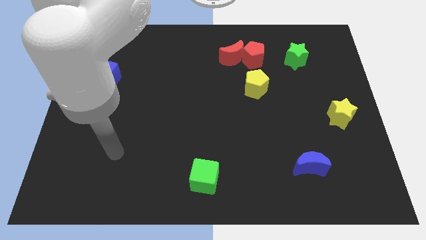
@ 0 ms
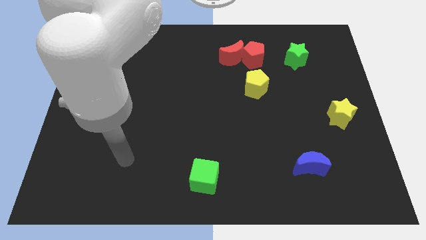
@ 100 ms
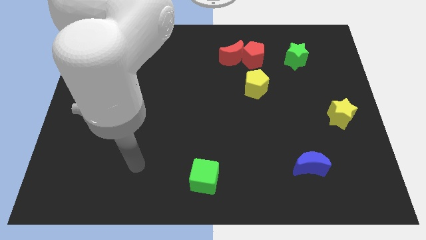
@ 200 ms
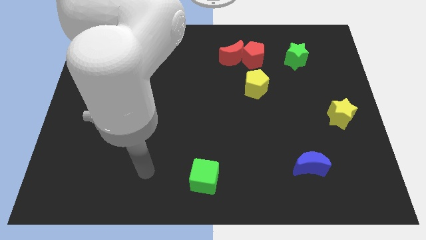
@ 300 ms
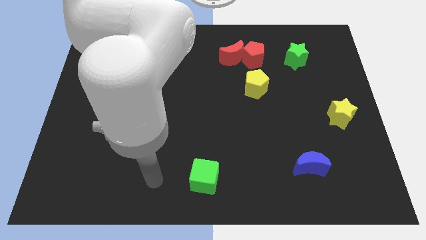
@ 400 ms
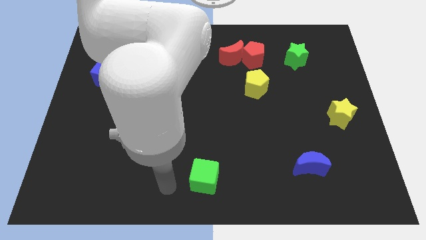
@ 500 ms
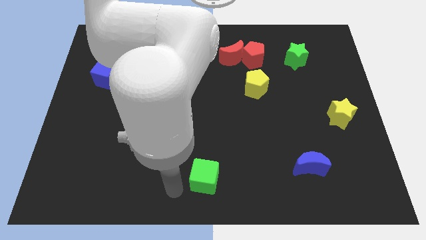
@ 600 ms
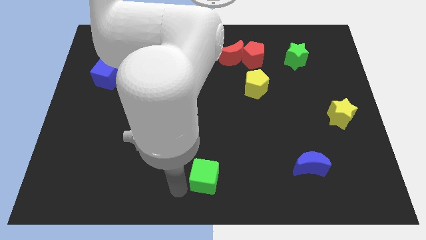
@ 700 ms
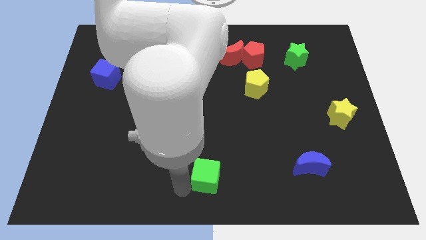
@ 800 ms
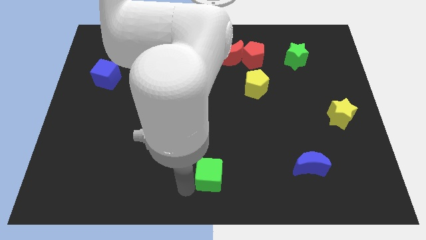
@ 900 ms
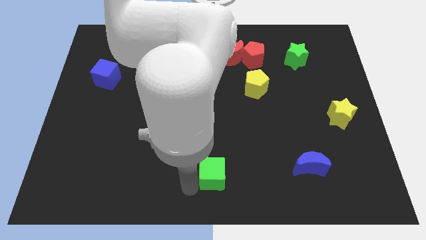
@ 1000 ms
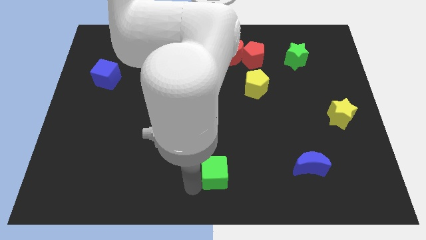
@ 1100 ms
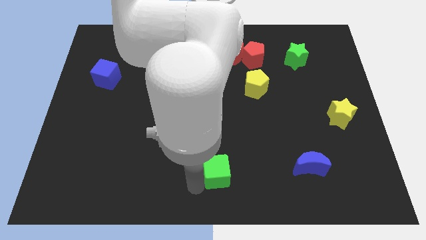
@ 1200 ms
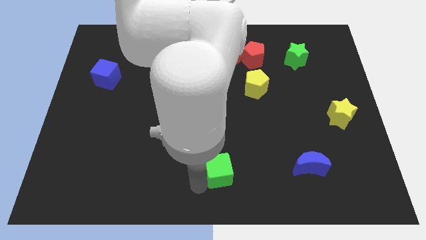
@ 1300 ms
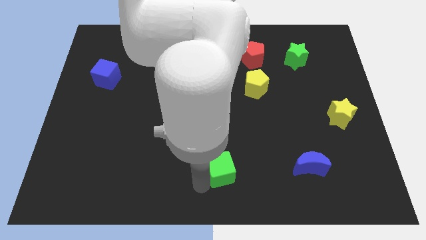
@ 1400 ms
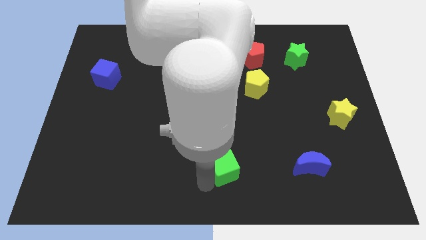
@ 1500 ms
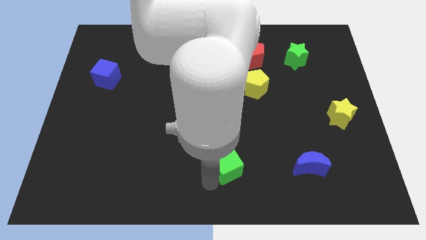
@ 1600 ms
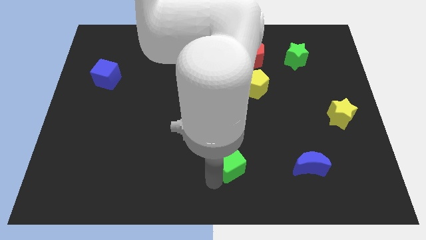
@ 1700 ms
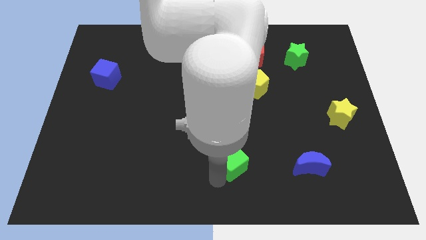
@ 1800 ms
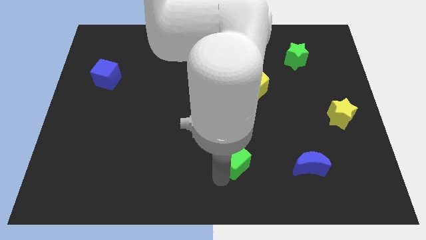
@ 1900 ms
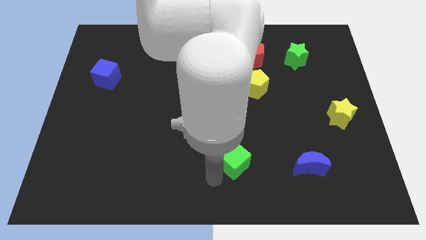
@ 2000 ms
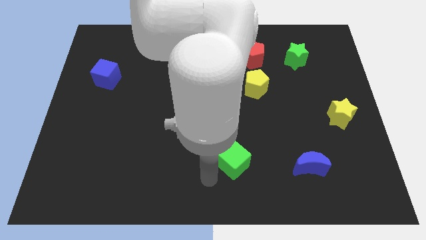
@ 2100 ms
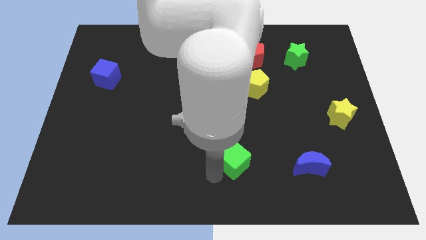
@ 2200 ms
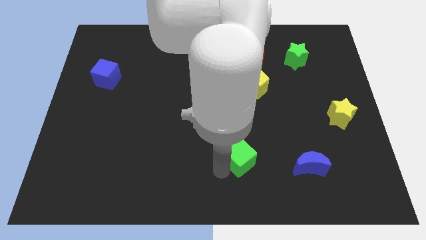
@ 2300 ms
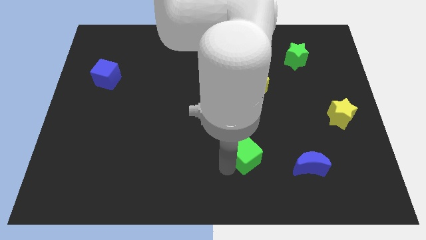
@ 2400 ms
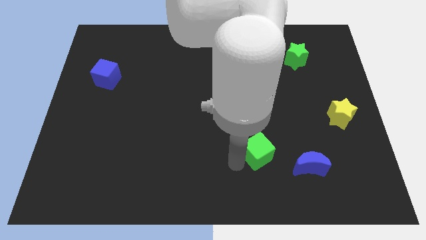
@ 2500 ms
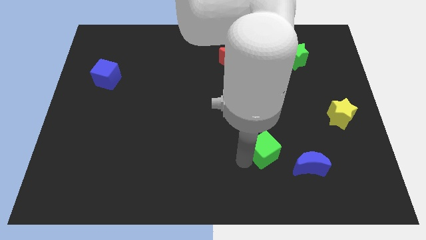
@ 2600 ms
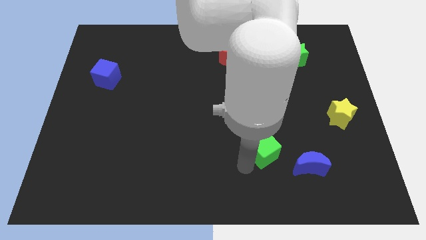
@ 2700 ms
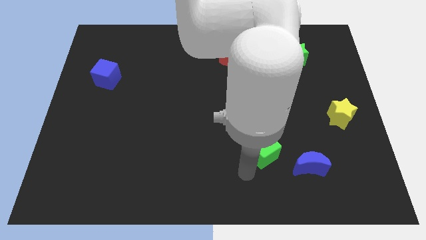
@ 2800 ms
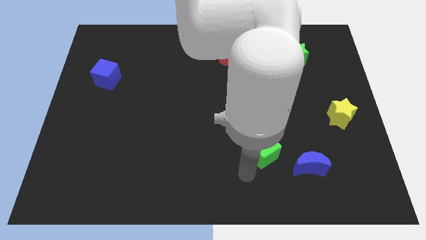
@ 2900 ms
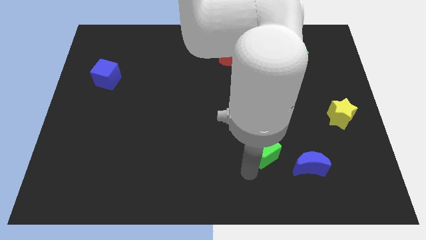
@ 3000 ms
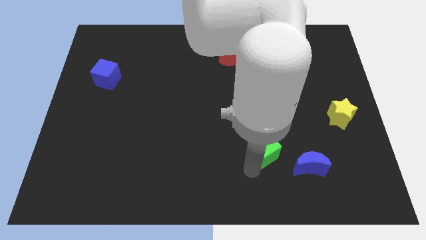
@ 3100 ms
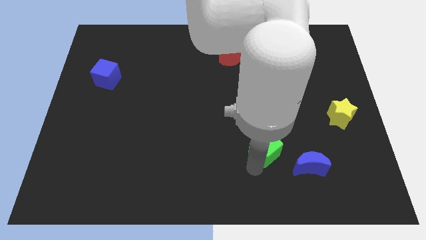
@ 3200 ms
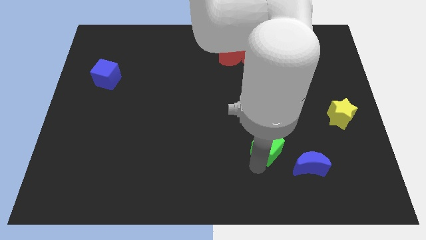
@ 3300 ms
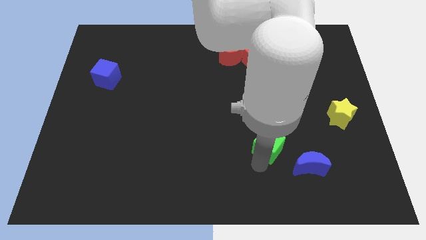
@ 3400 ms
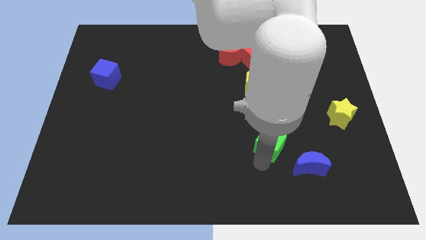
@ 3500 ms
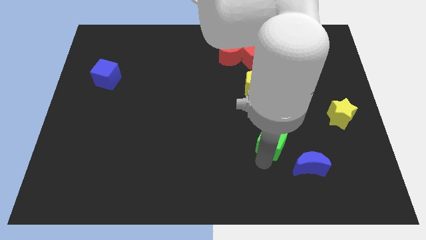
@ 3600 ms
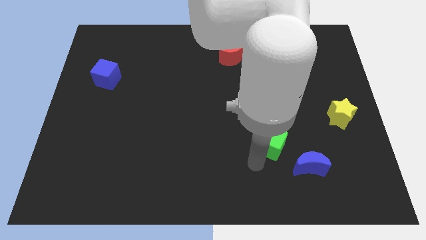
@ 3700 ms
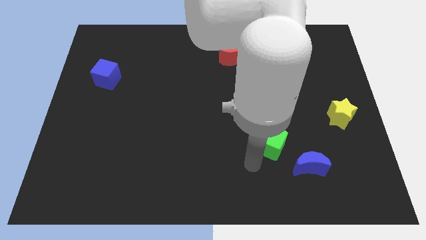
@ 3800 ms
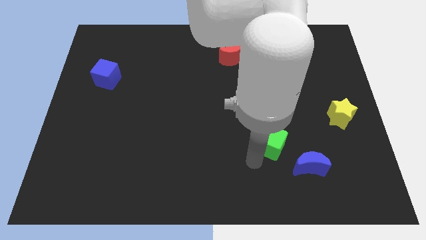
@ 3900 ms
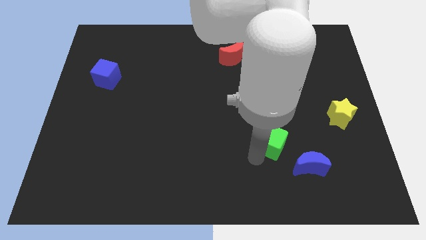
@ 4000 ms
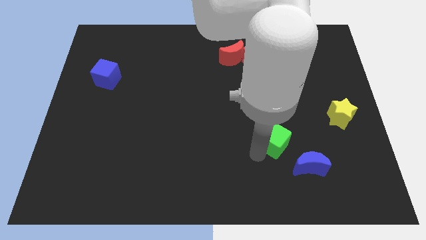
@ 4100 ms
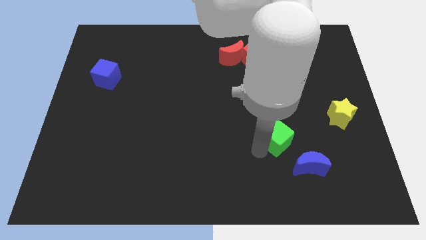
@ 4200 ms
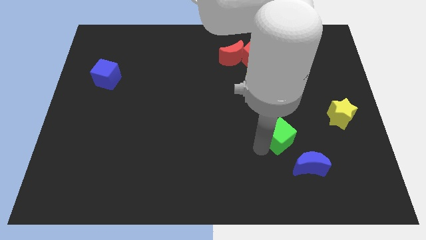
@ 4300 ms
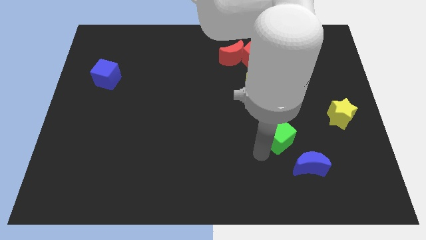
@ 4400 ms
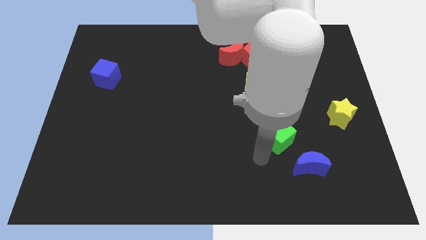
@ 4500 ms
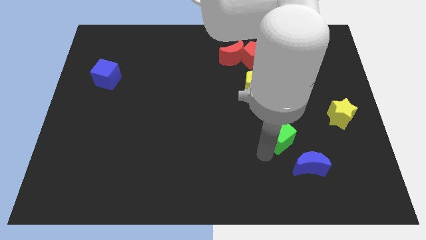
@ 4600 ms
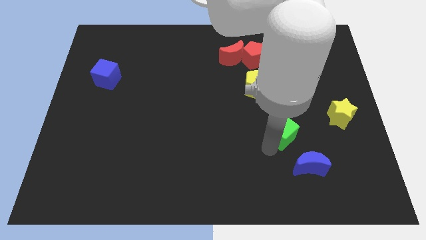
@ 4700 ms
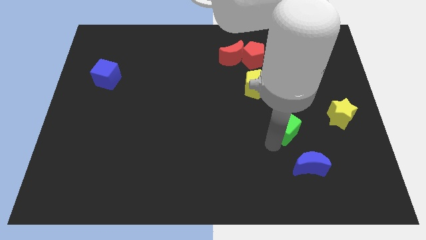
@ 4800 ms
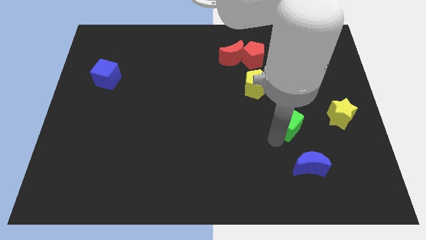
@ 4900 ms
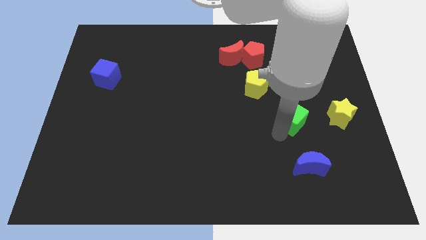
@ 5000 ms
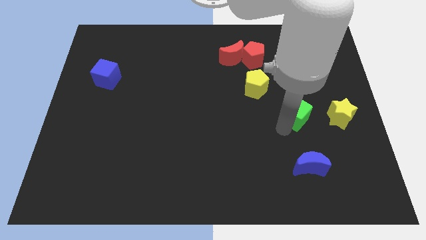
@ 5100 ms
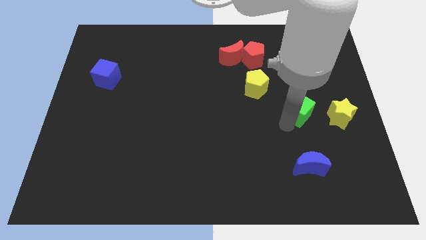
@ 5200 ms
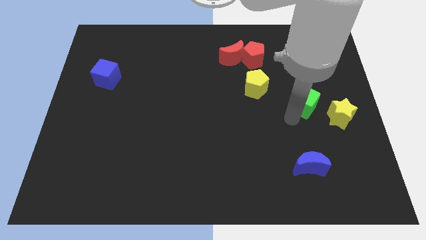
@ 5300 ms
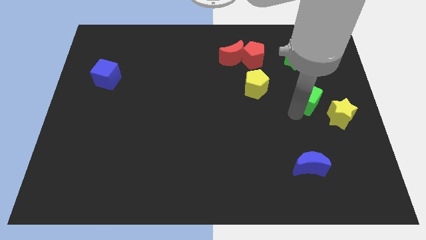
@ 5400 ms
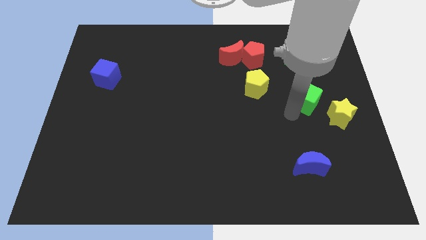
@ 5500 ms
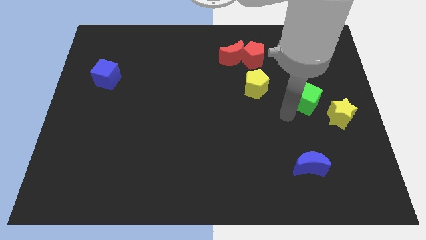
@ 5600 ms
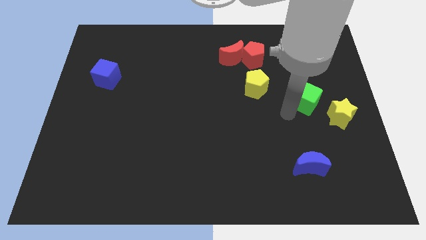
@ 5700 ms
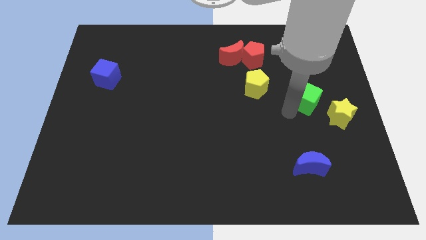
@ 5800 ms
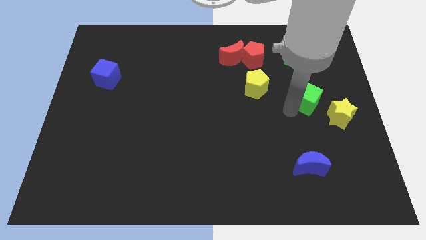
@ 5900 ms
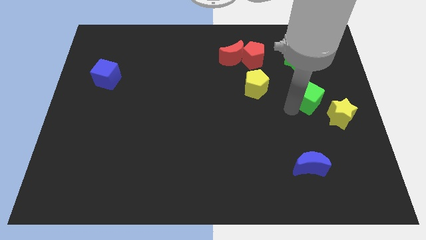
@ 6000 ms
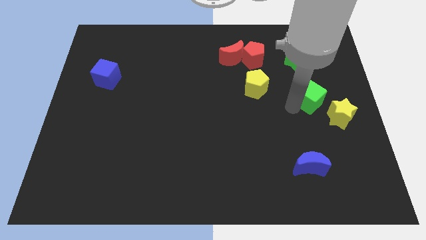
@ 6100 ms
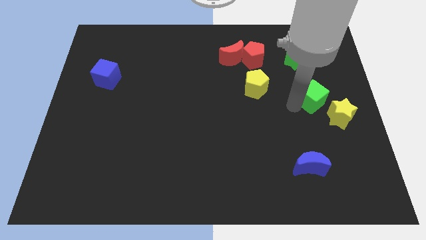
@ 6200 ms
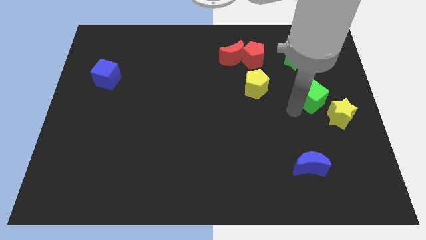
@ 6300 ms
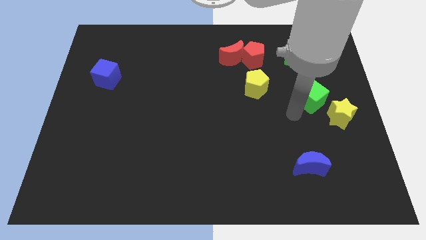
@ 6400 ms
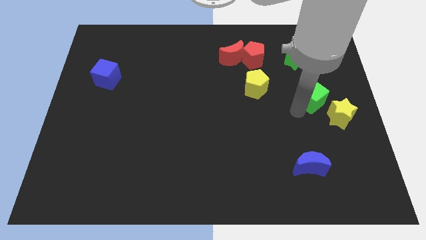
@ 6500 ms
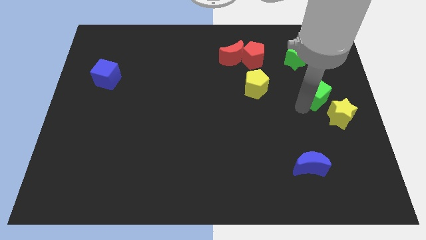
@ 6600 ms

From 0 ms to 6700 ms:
slide the green cube to the top side of the yellow star
